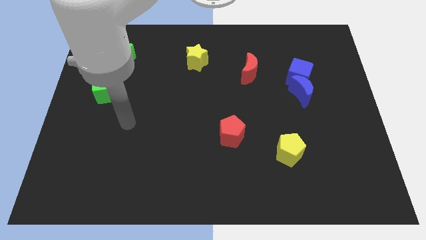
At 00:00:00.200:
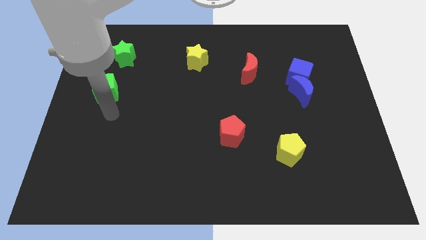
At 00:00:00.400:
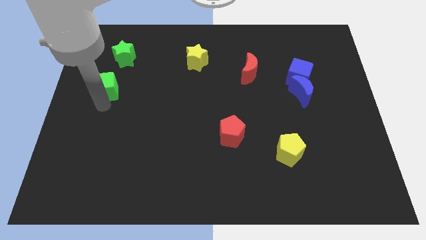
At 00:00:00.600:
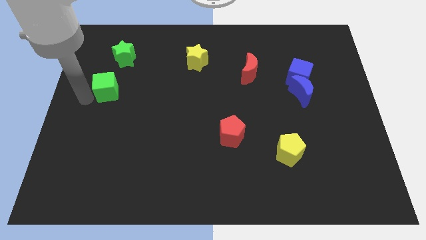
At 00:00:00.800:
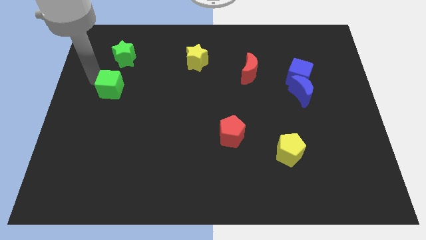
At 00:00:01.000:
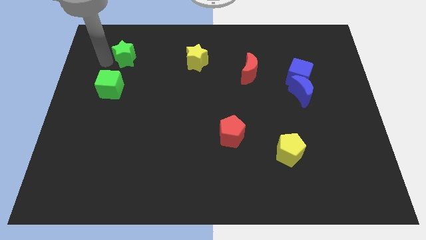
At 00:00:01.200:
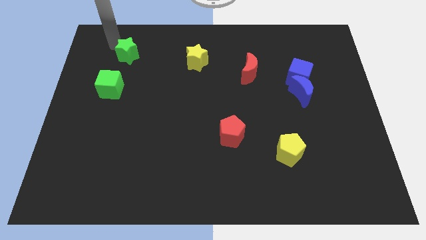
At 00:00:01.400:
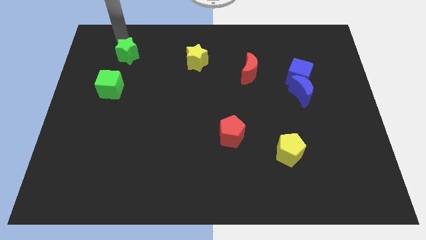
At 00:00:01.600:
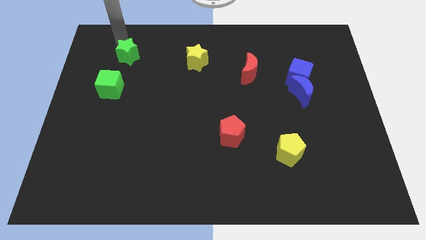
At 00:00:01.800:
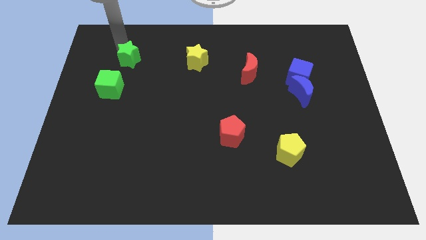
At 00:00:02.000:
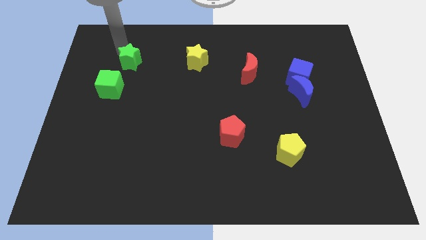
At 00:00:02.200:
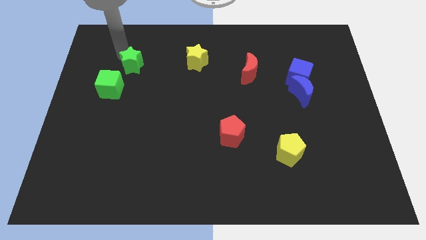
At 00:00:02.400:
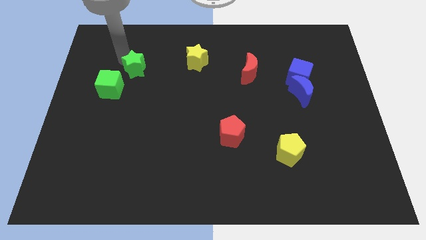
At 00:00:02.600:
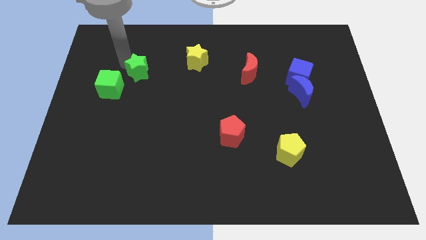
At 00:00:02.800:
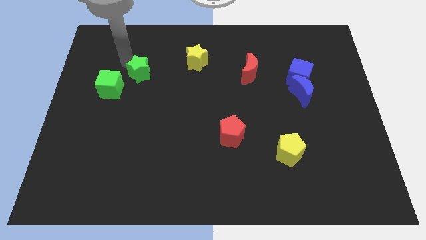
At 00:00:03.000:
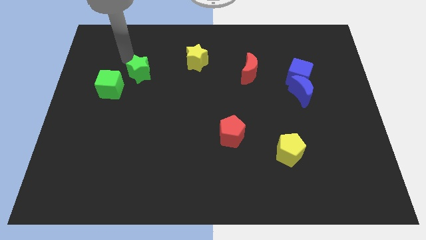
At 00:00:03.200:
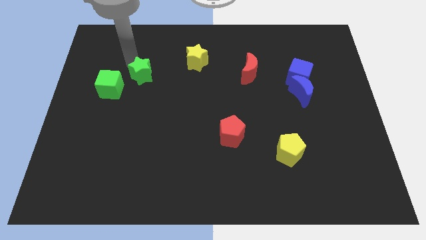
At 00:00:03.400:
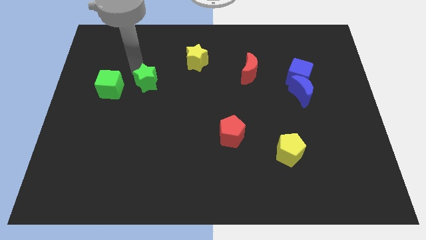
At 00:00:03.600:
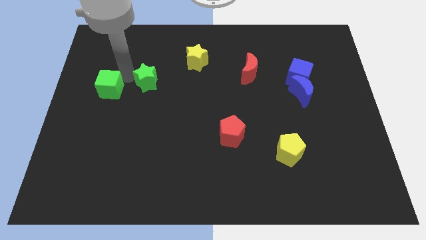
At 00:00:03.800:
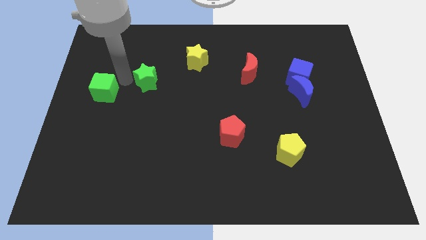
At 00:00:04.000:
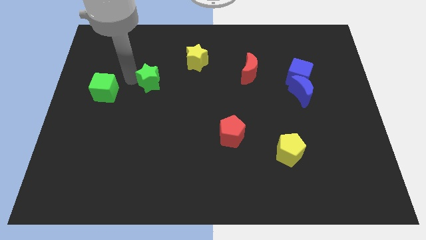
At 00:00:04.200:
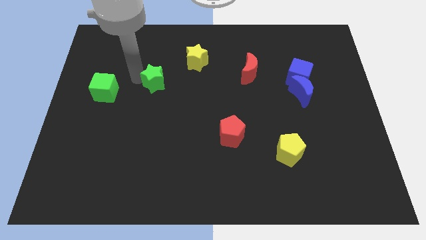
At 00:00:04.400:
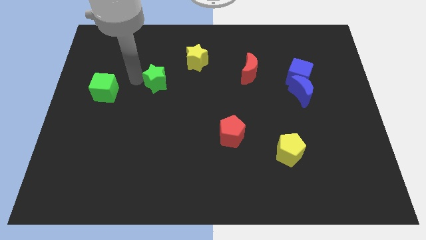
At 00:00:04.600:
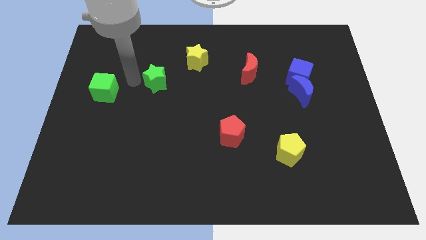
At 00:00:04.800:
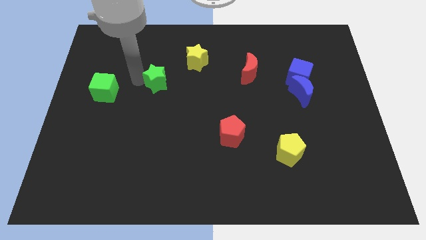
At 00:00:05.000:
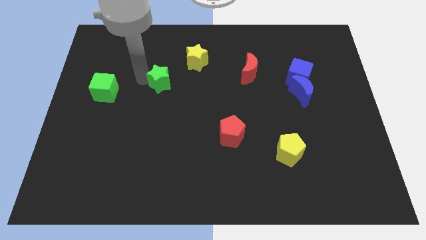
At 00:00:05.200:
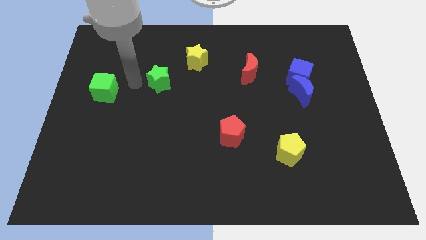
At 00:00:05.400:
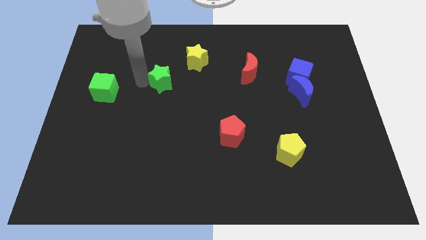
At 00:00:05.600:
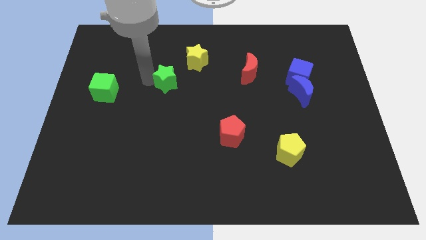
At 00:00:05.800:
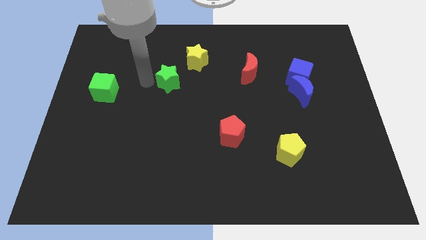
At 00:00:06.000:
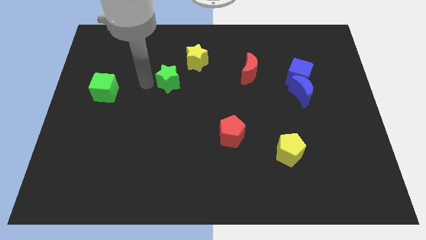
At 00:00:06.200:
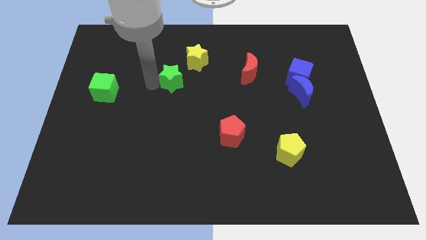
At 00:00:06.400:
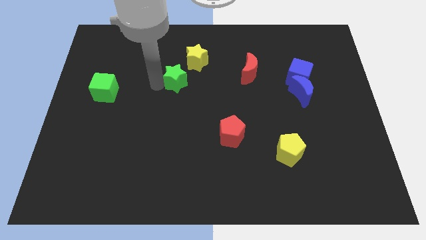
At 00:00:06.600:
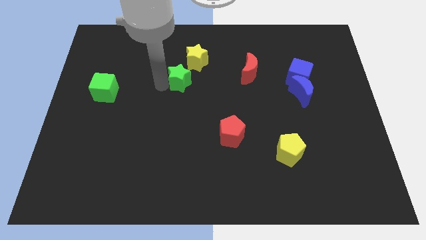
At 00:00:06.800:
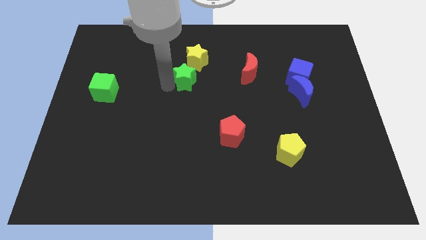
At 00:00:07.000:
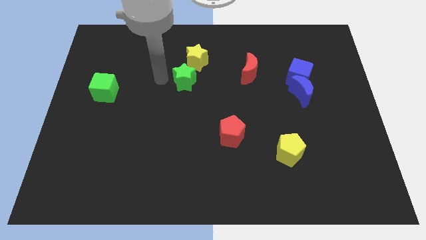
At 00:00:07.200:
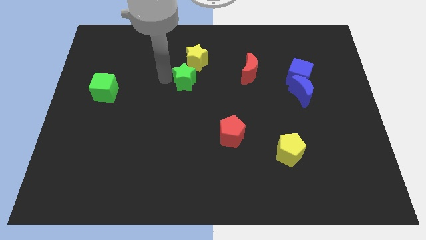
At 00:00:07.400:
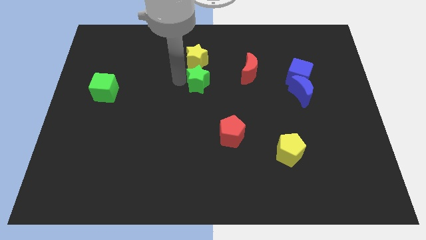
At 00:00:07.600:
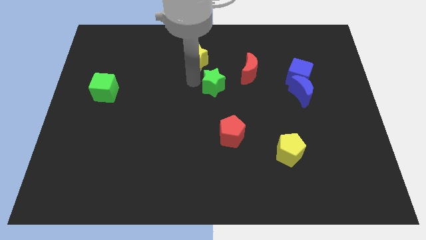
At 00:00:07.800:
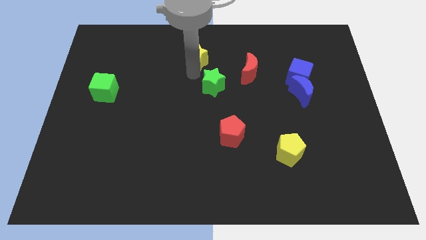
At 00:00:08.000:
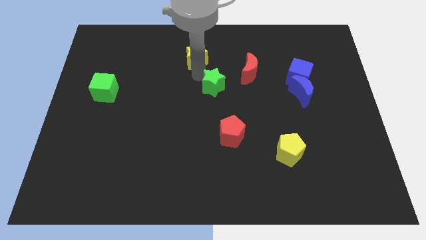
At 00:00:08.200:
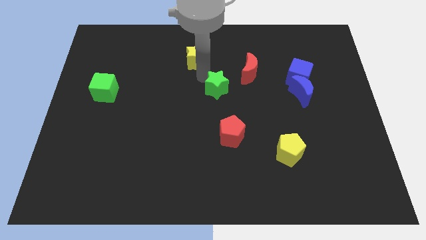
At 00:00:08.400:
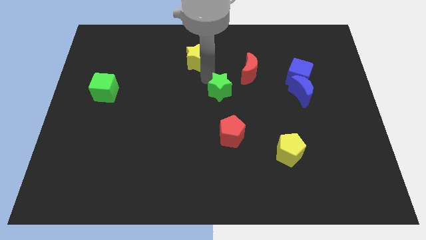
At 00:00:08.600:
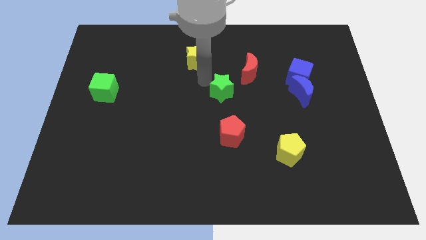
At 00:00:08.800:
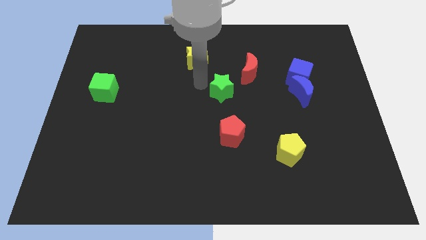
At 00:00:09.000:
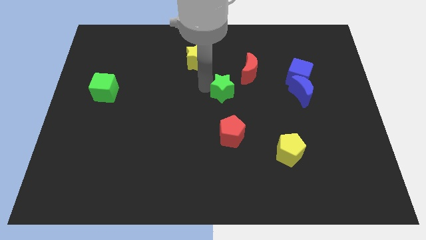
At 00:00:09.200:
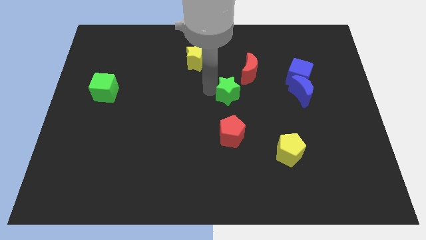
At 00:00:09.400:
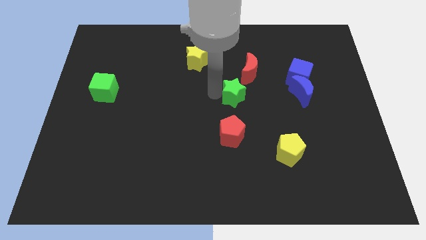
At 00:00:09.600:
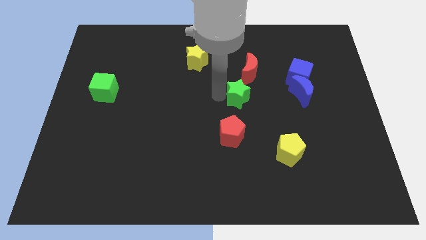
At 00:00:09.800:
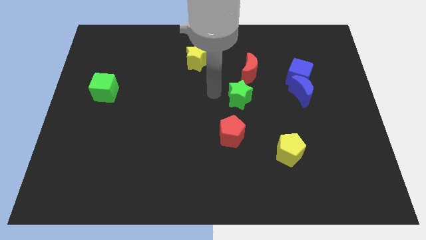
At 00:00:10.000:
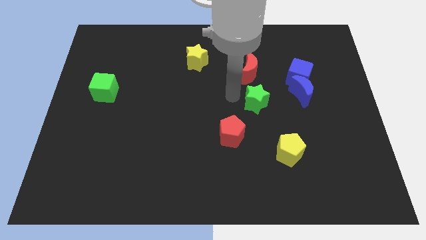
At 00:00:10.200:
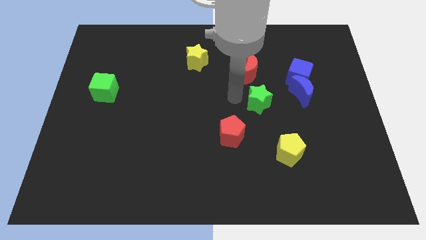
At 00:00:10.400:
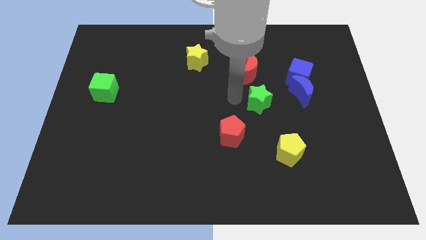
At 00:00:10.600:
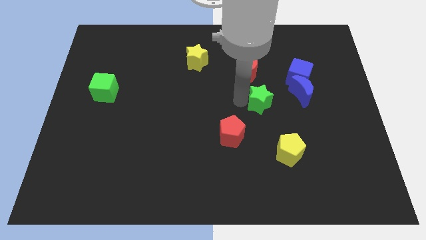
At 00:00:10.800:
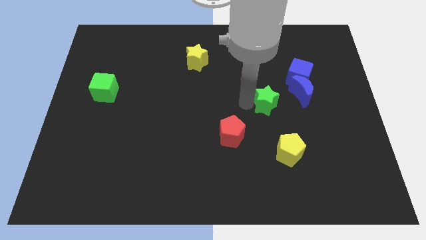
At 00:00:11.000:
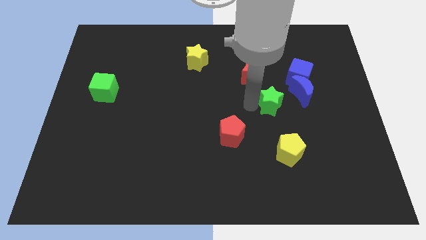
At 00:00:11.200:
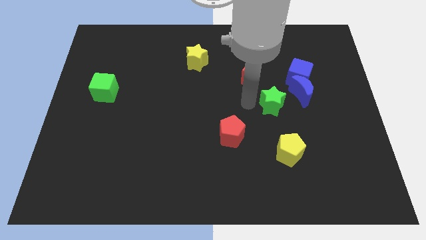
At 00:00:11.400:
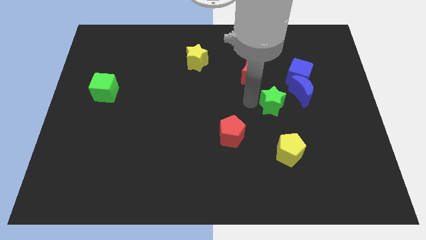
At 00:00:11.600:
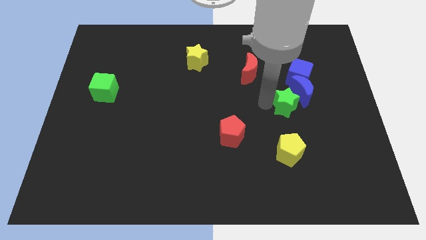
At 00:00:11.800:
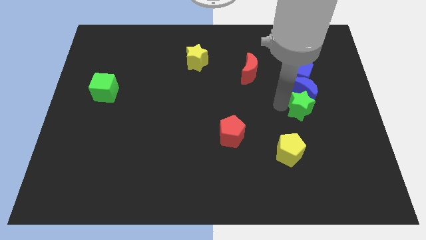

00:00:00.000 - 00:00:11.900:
push the green star to the bottom right of the blue moon

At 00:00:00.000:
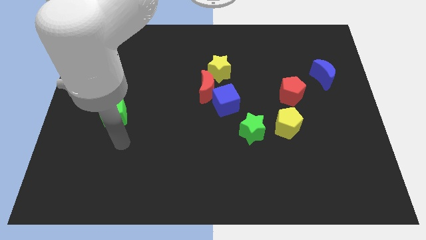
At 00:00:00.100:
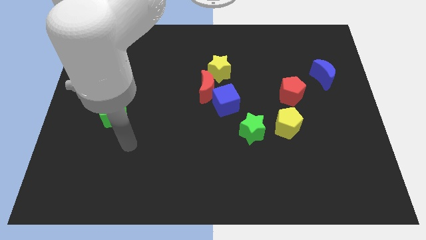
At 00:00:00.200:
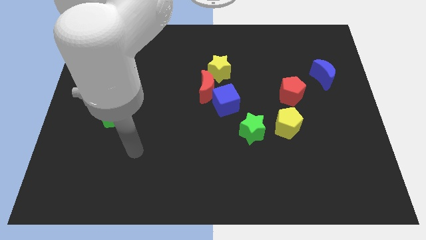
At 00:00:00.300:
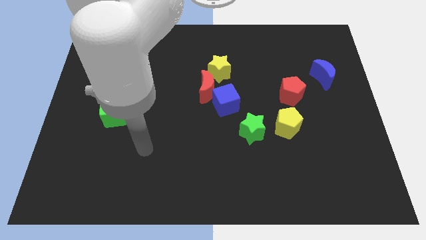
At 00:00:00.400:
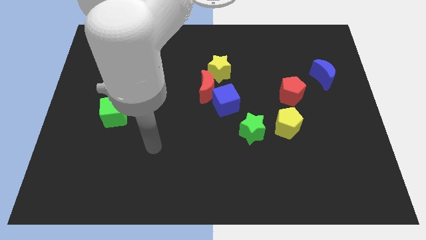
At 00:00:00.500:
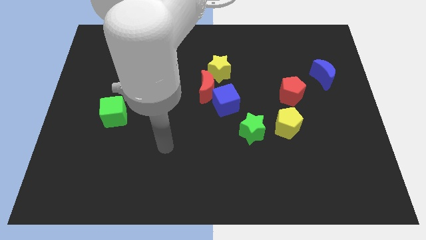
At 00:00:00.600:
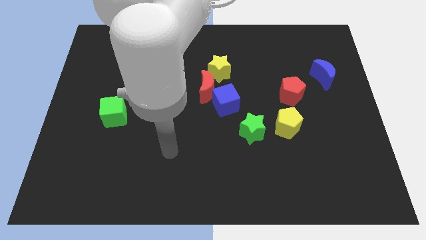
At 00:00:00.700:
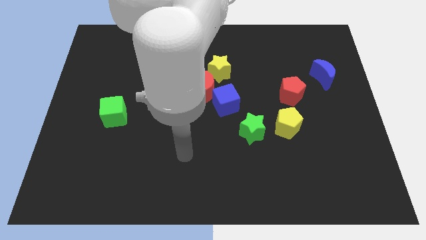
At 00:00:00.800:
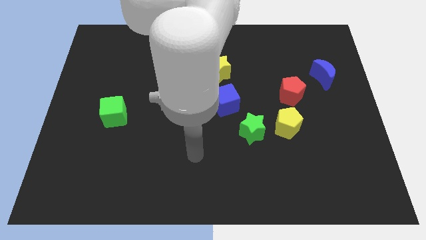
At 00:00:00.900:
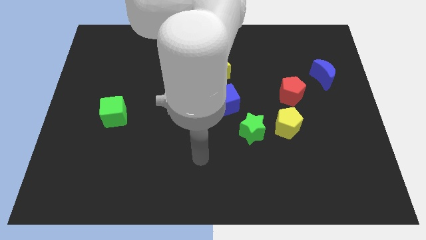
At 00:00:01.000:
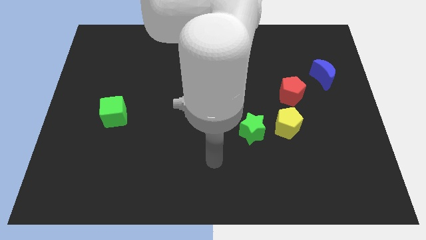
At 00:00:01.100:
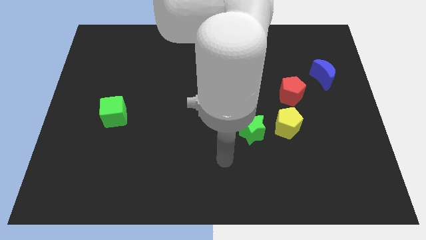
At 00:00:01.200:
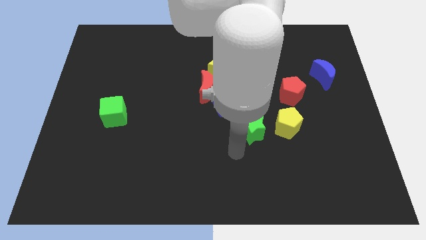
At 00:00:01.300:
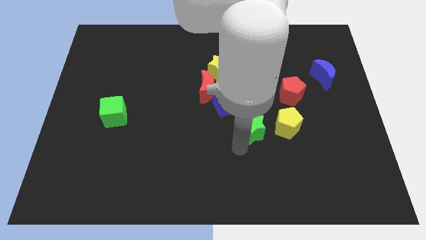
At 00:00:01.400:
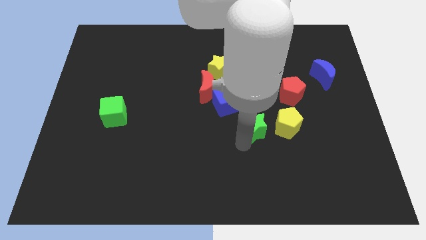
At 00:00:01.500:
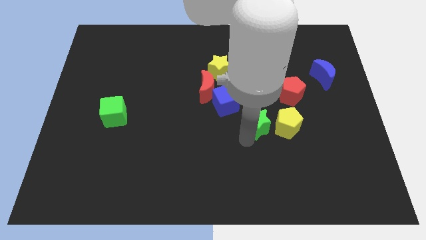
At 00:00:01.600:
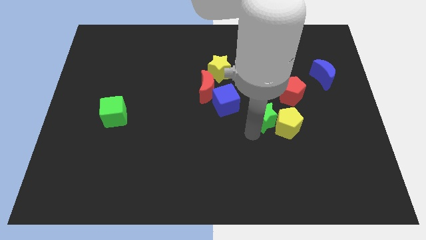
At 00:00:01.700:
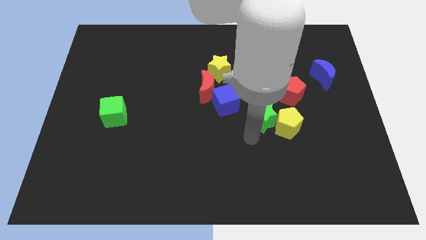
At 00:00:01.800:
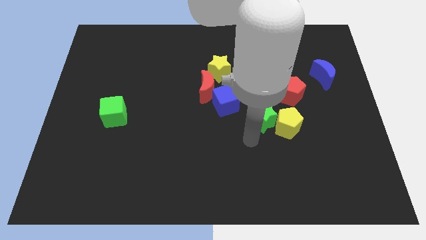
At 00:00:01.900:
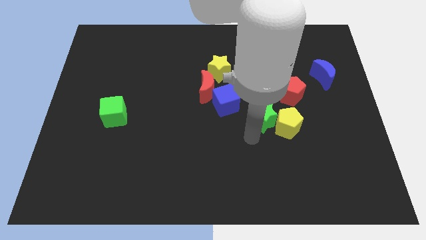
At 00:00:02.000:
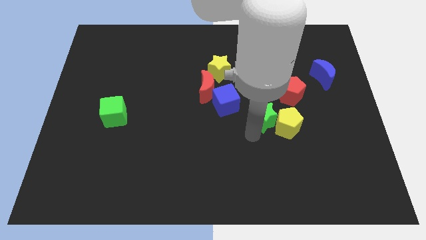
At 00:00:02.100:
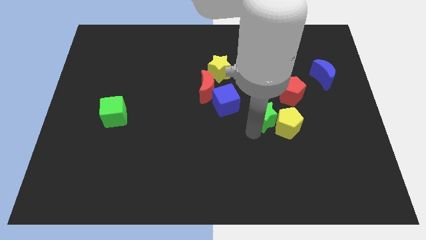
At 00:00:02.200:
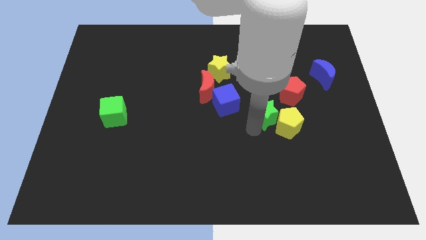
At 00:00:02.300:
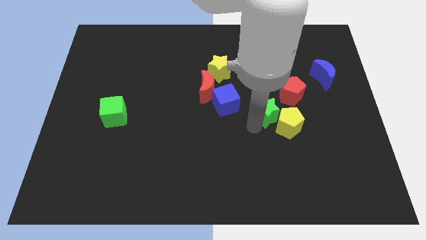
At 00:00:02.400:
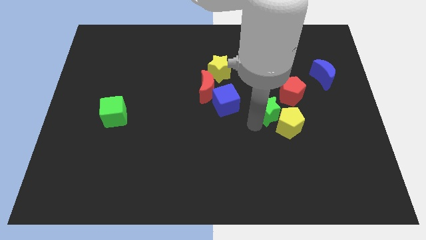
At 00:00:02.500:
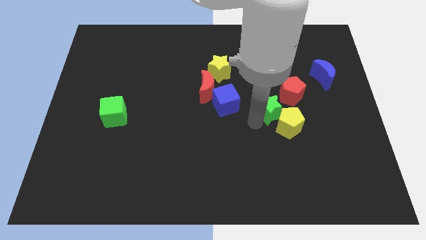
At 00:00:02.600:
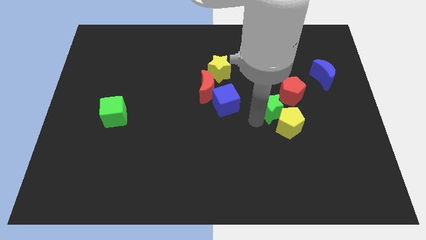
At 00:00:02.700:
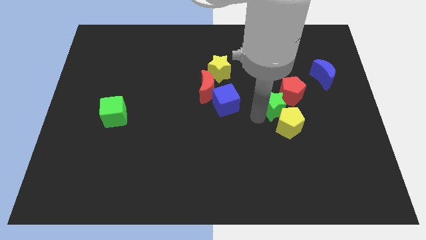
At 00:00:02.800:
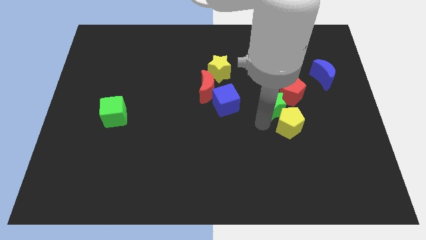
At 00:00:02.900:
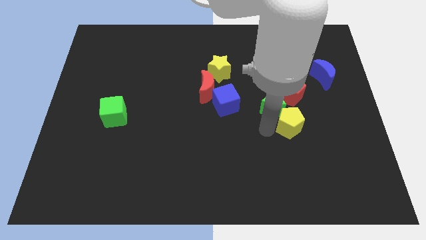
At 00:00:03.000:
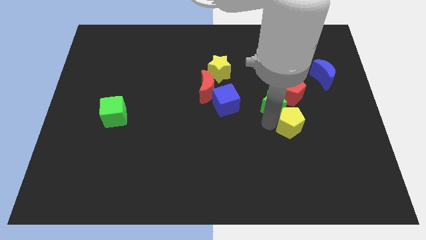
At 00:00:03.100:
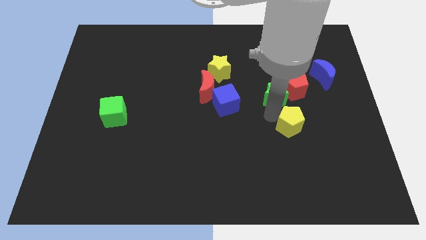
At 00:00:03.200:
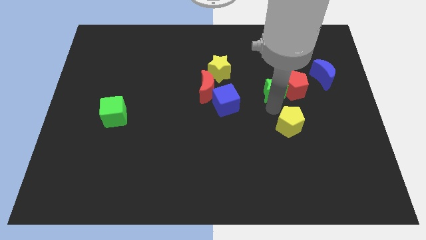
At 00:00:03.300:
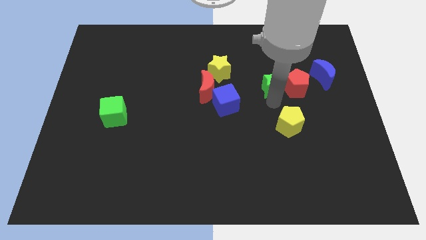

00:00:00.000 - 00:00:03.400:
slide the green star to the left side of the blue moon
